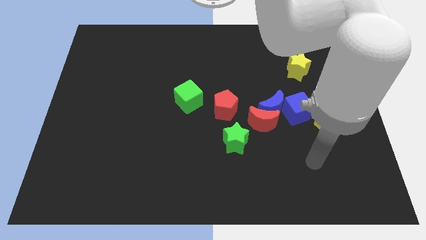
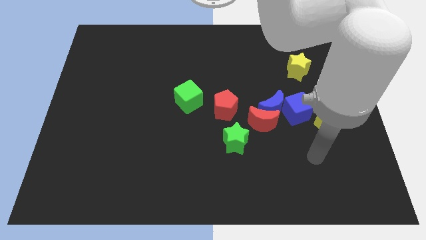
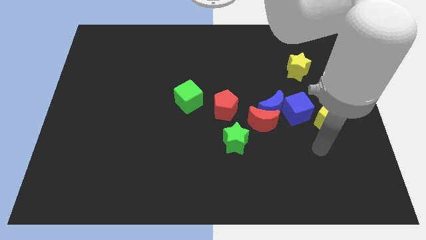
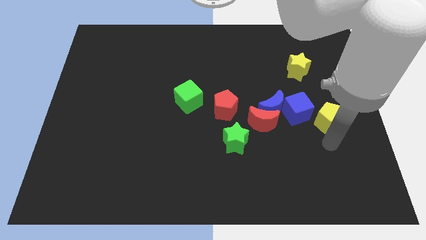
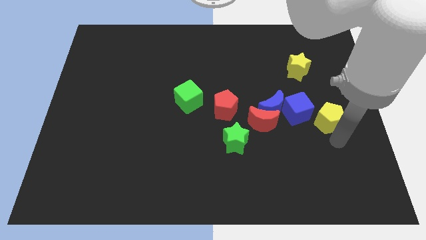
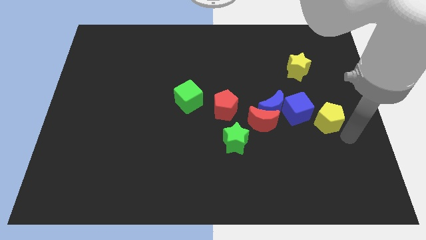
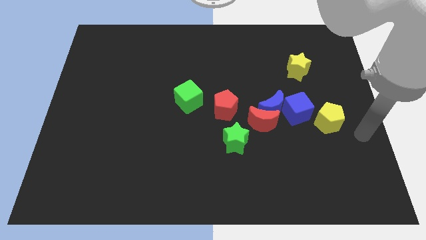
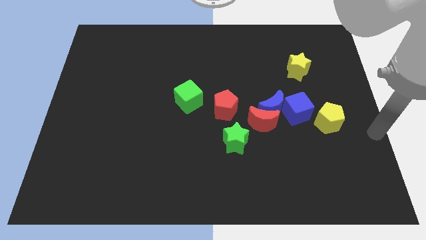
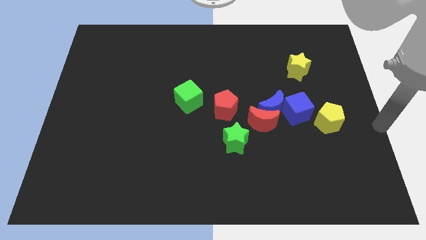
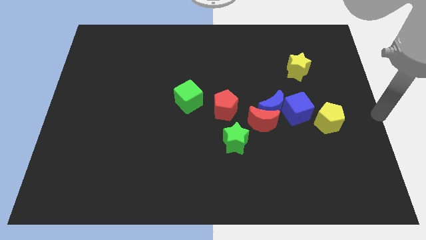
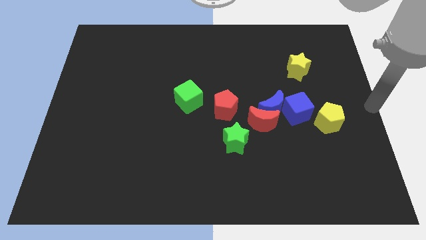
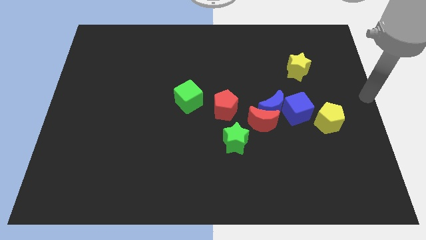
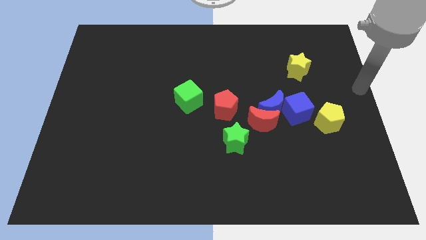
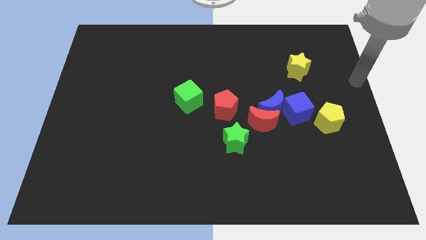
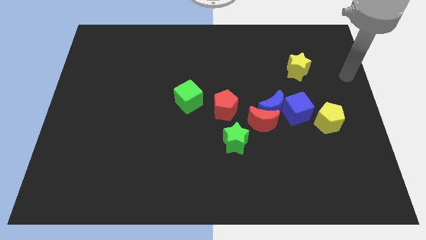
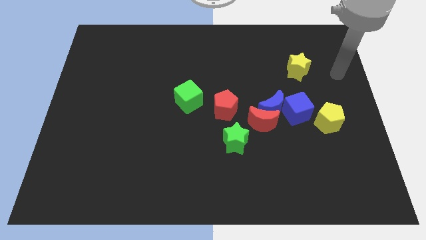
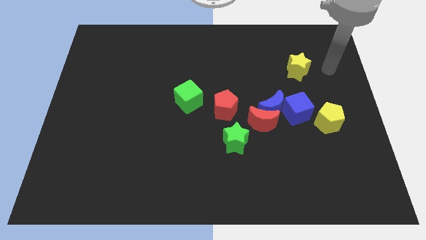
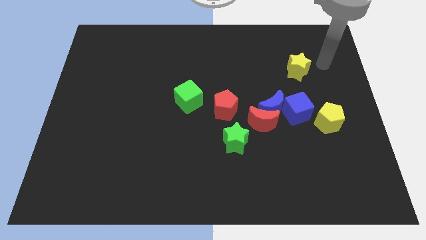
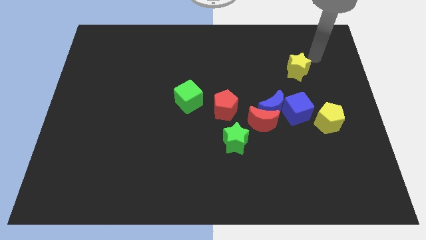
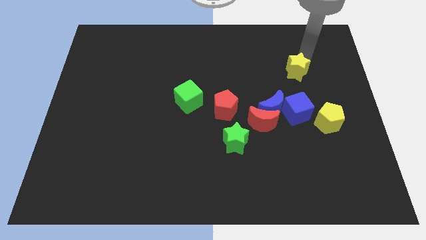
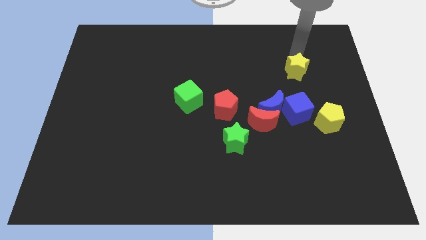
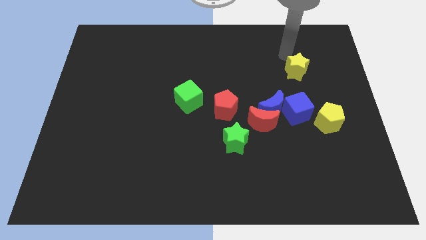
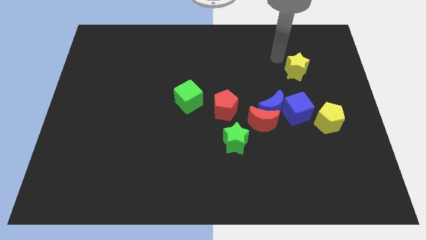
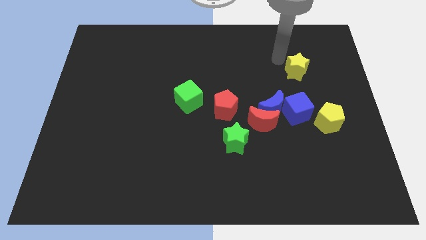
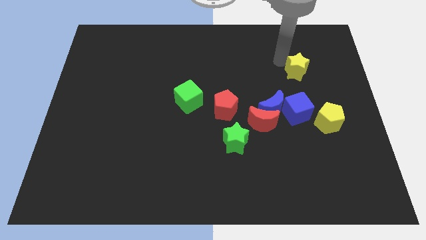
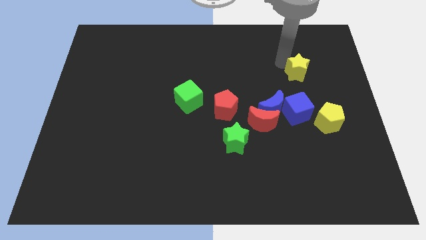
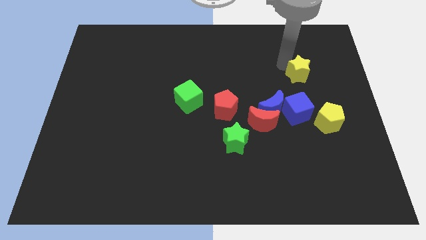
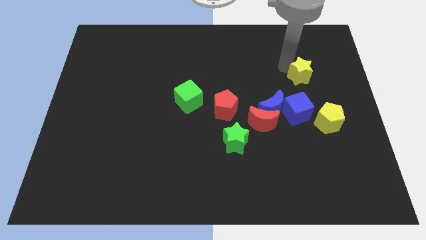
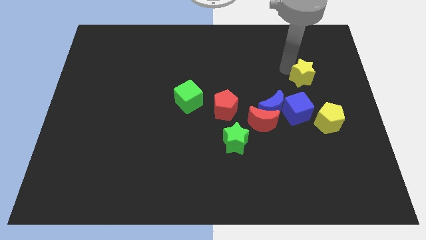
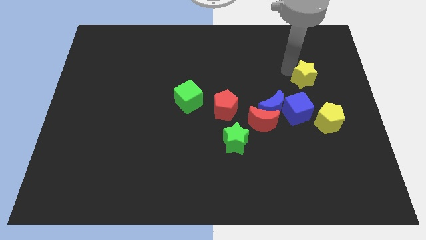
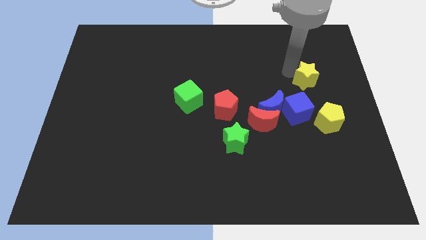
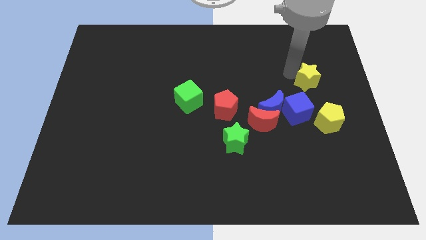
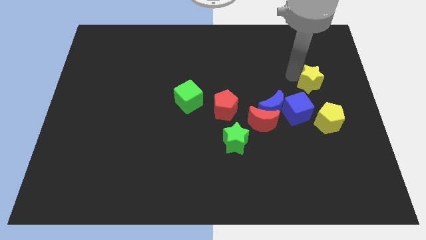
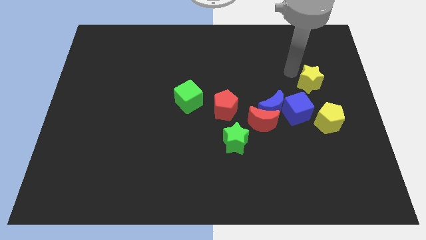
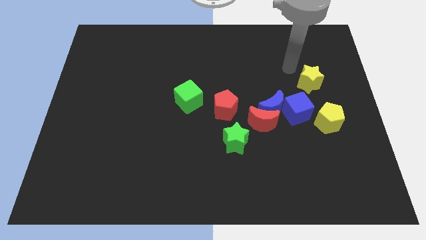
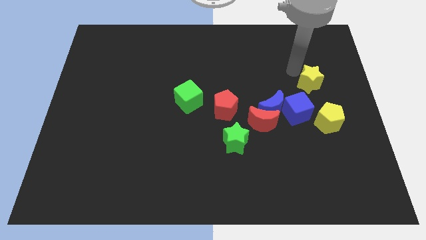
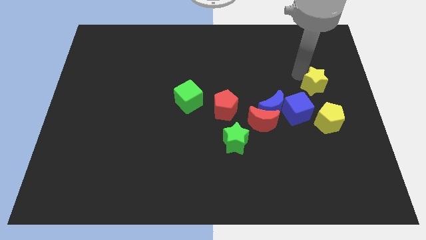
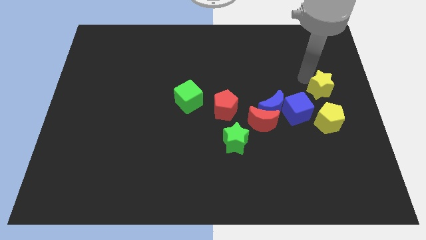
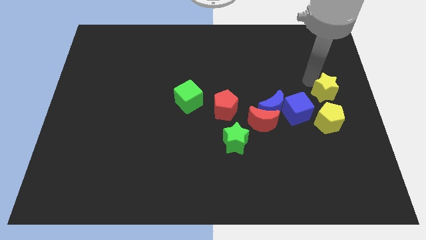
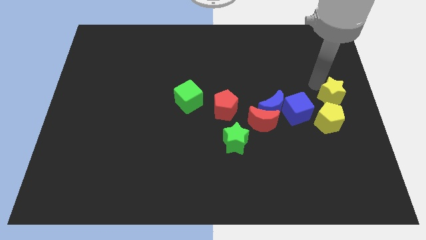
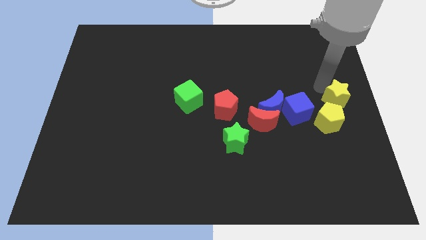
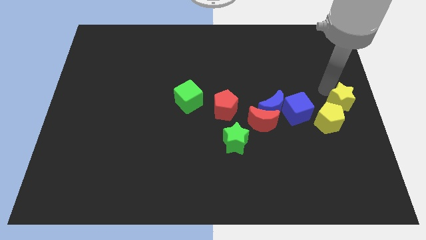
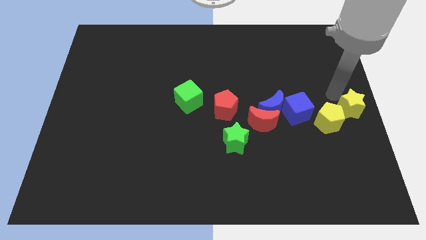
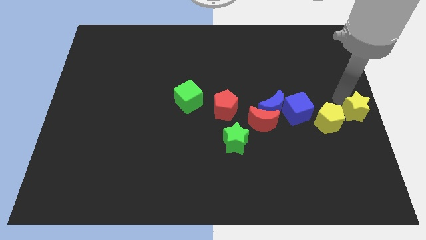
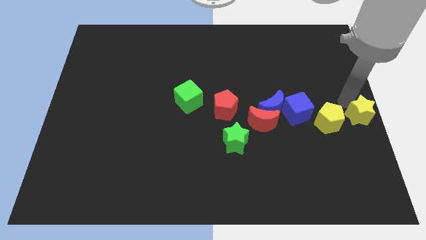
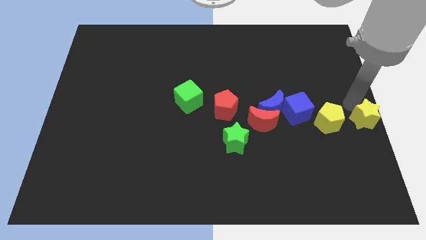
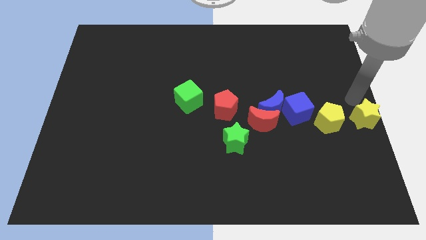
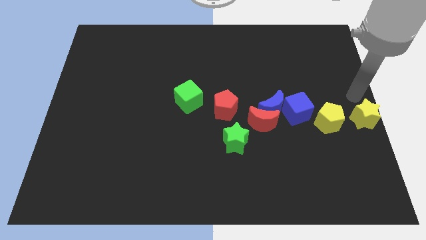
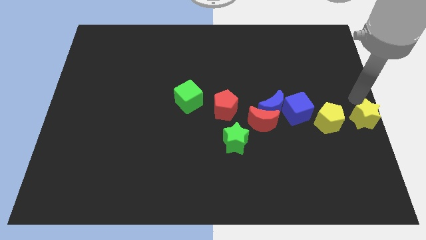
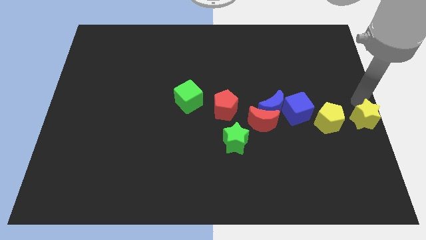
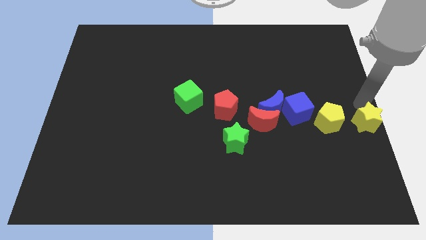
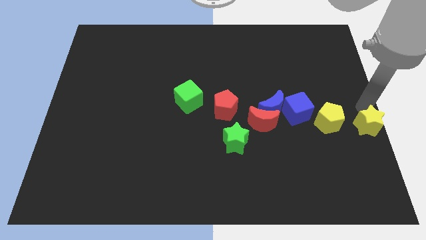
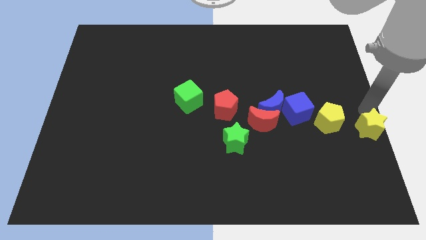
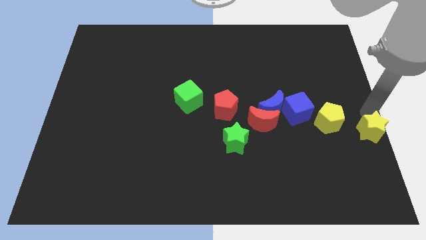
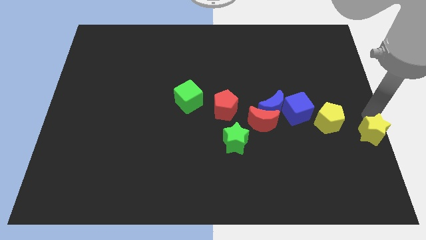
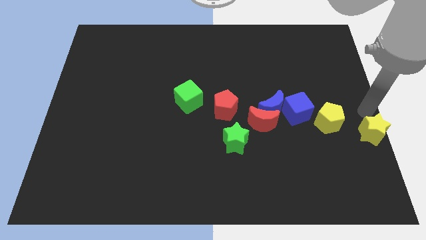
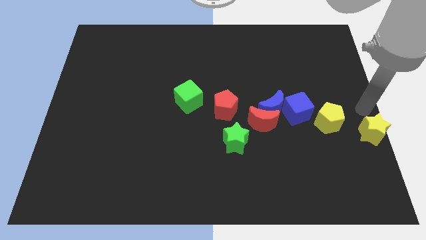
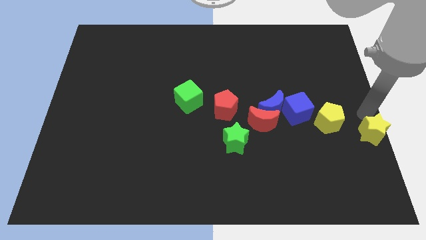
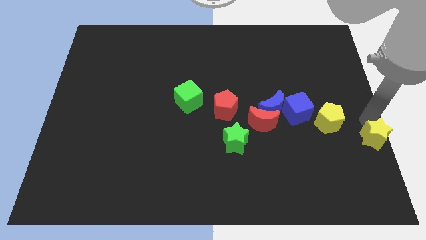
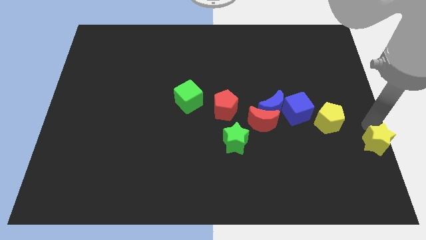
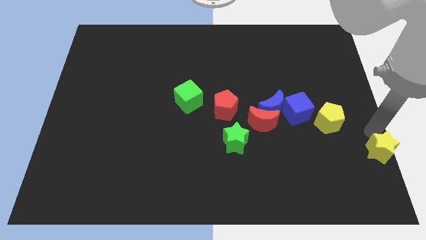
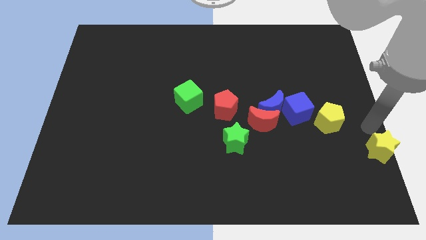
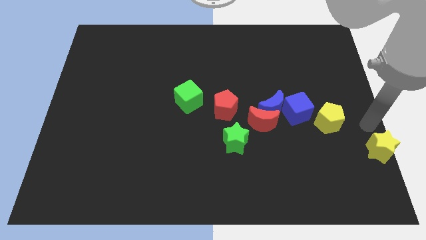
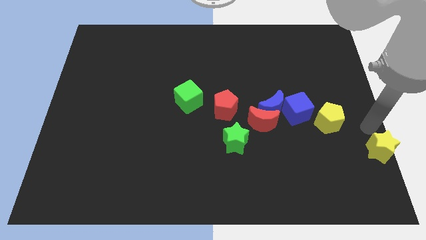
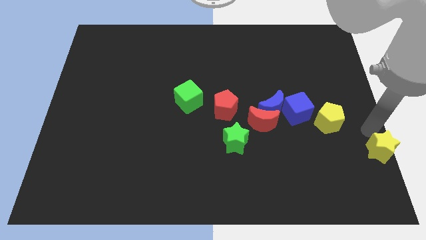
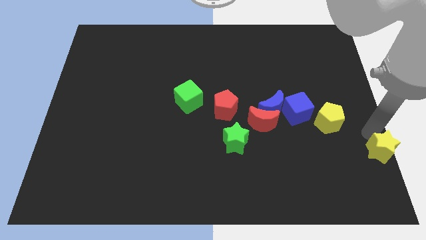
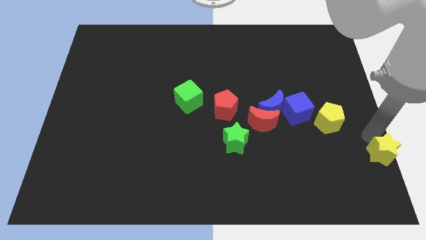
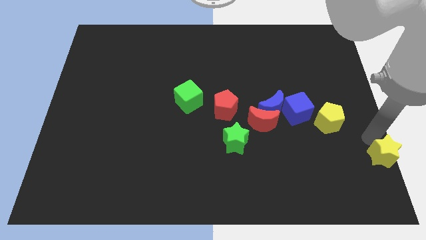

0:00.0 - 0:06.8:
move the yellow star to the bottom right of the board
